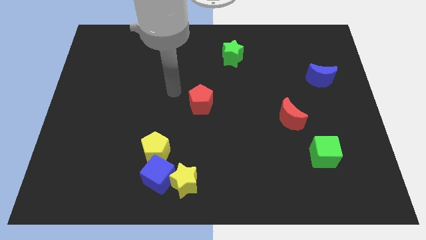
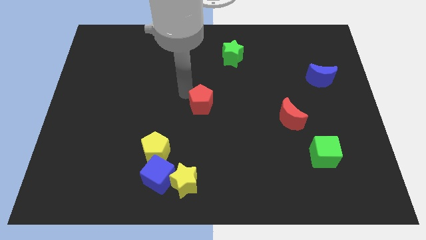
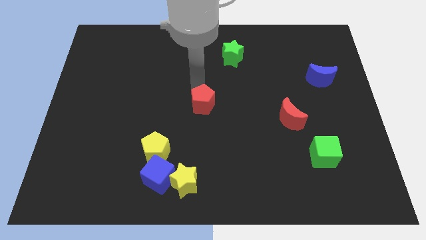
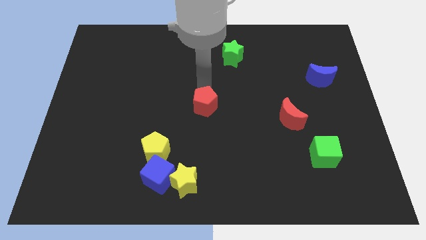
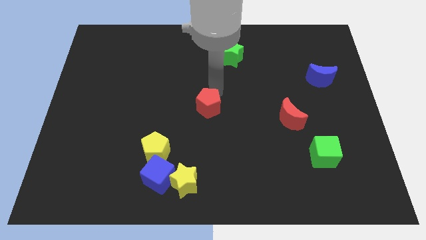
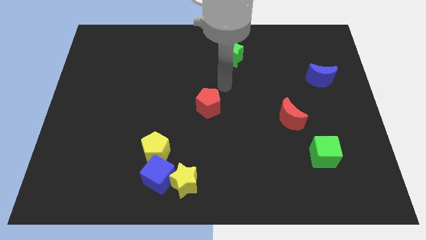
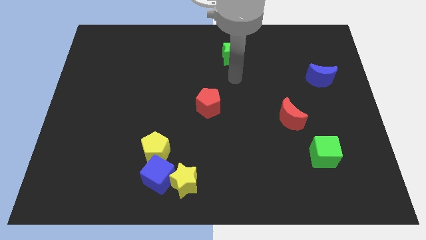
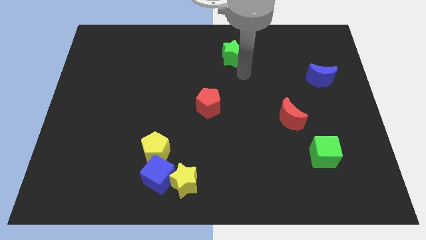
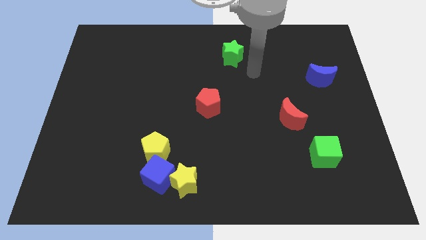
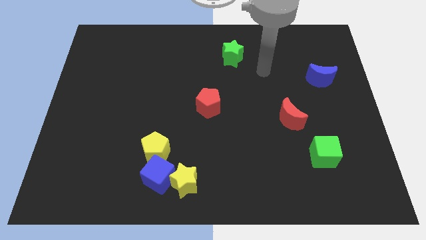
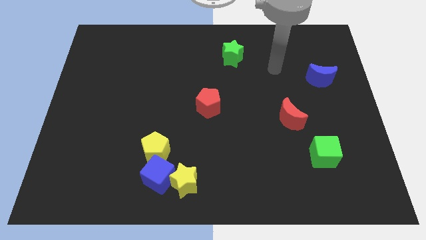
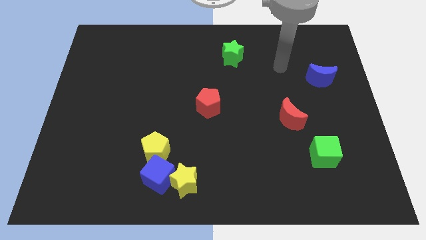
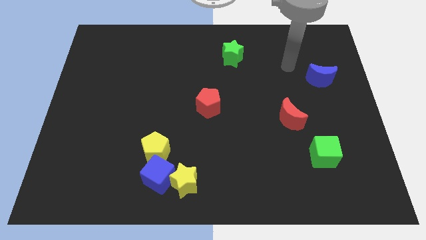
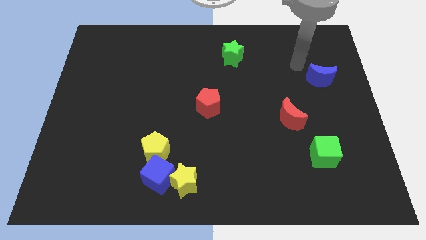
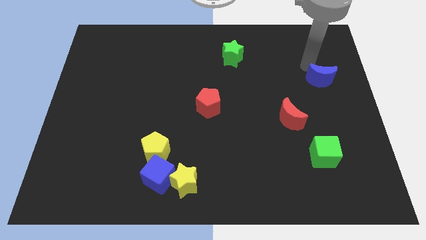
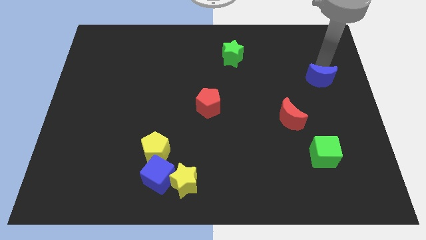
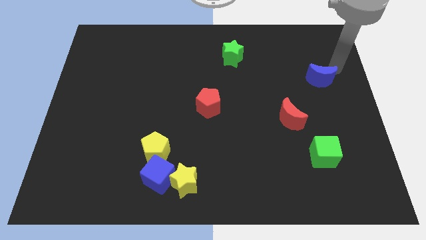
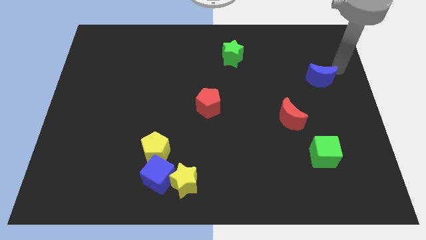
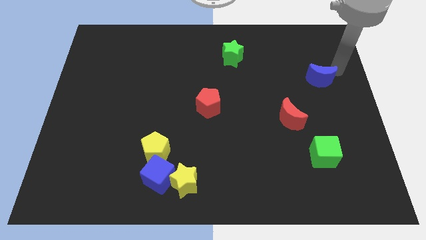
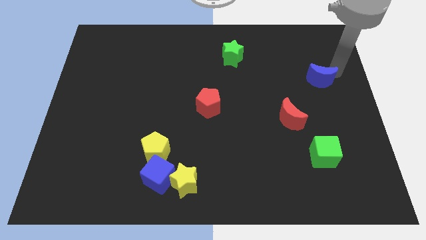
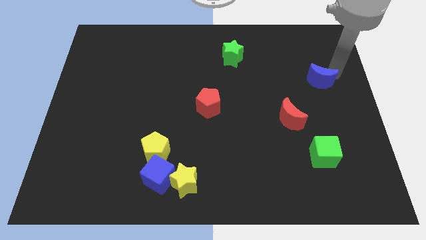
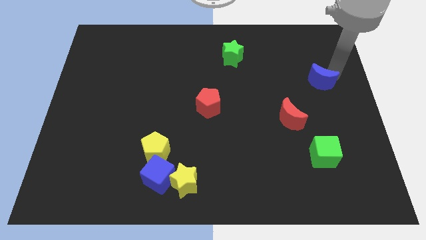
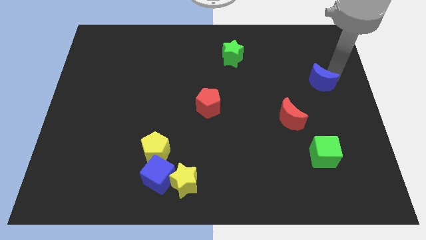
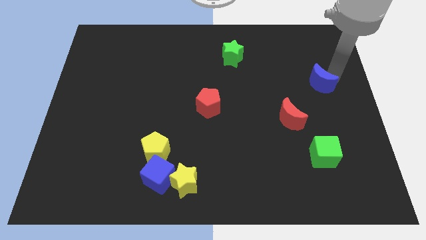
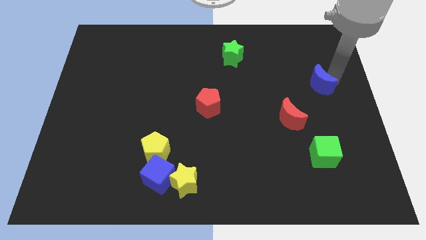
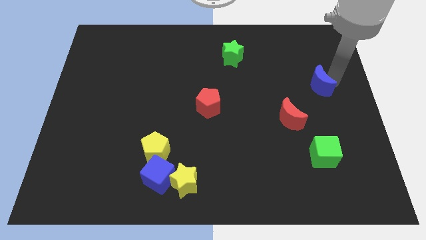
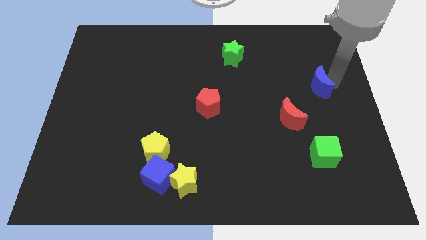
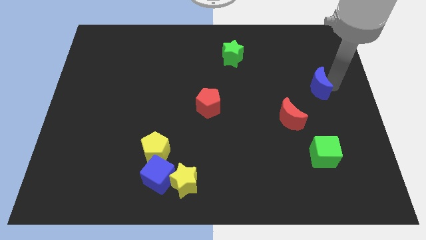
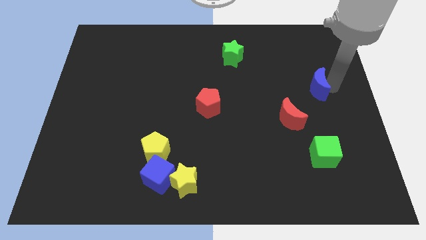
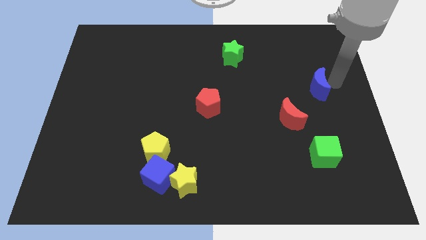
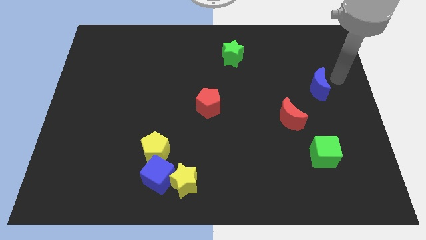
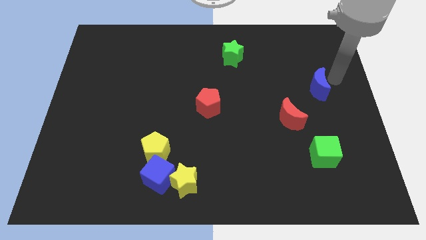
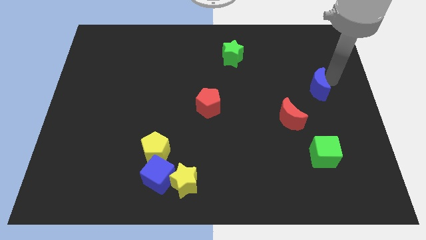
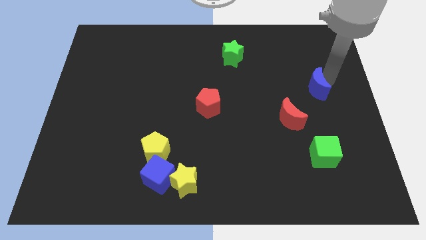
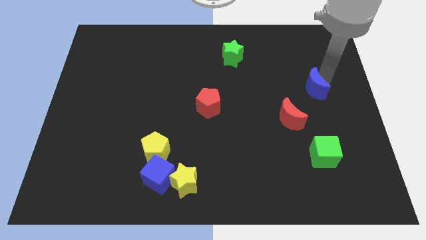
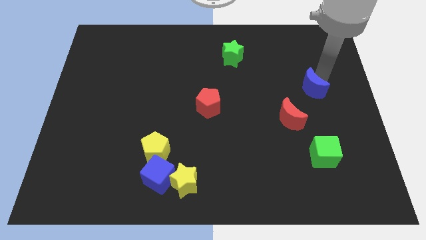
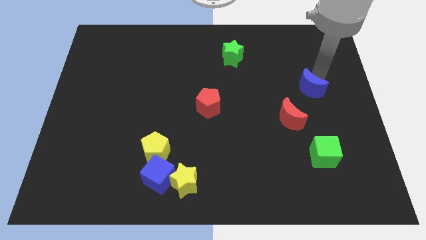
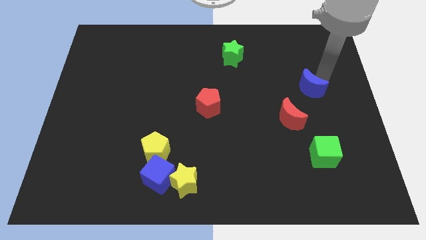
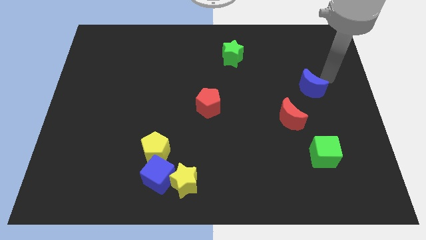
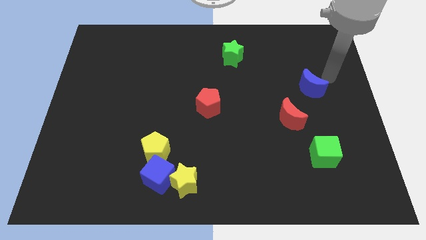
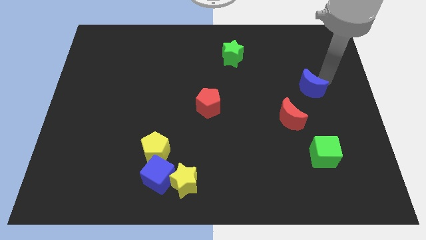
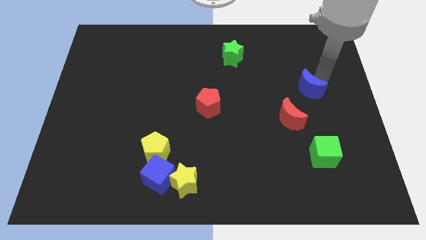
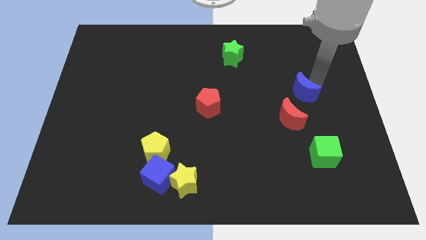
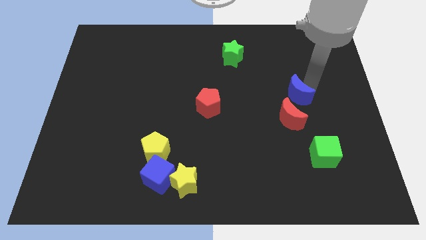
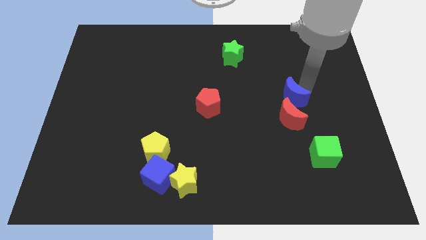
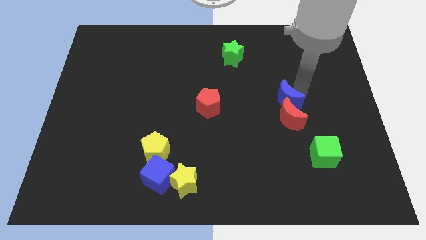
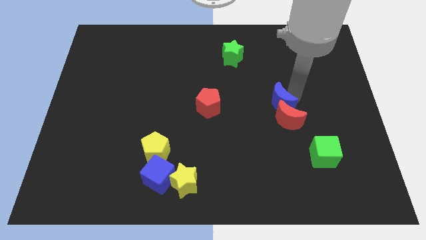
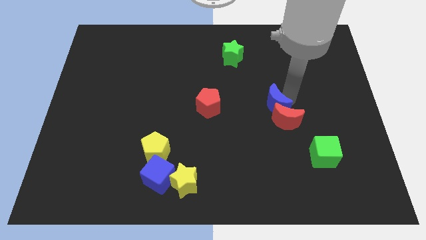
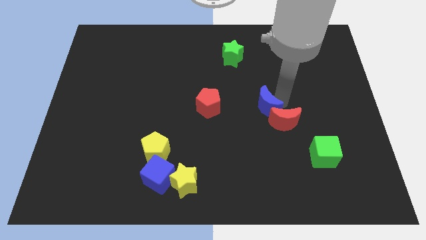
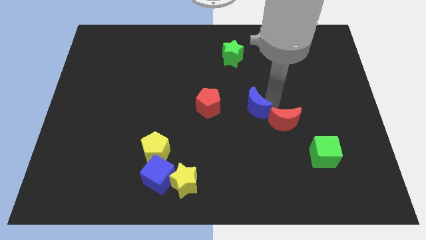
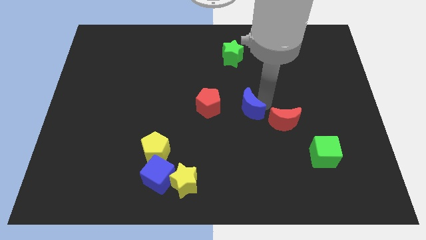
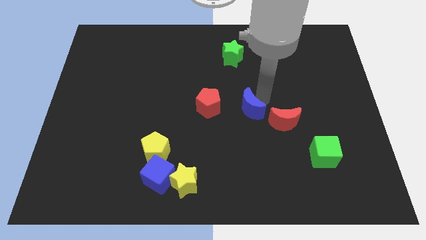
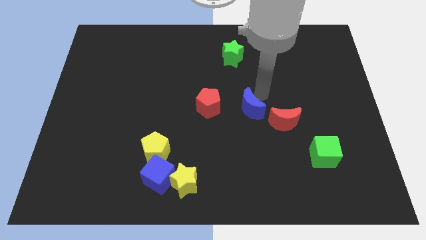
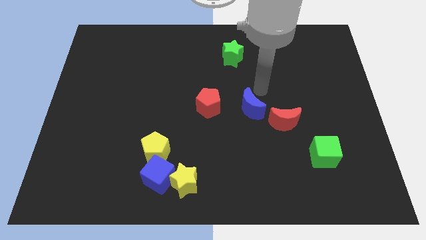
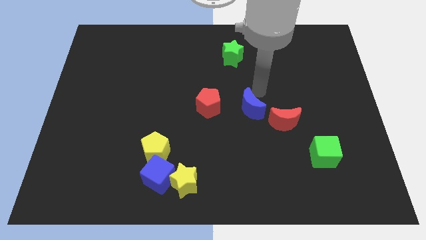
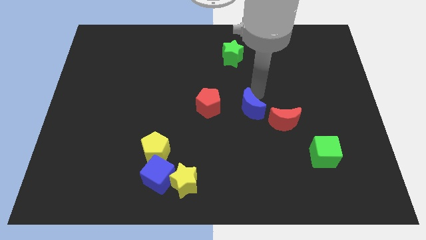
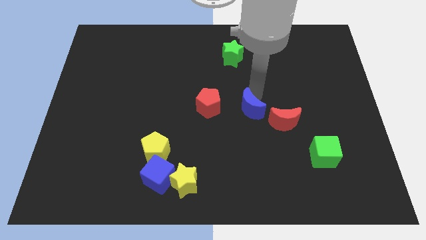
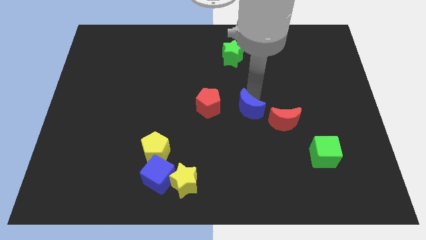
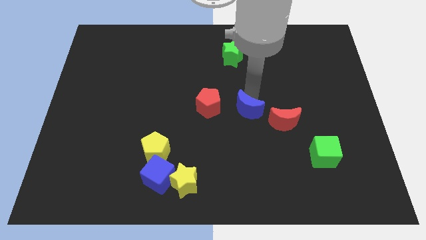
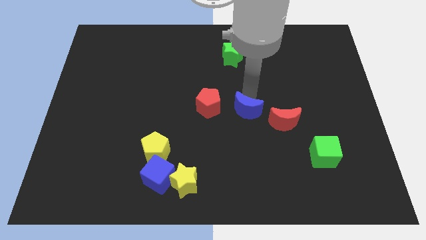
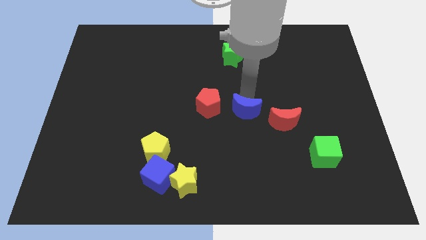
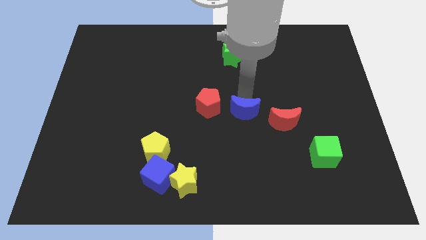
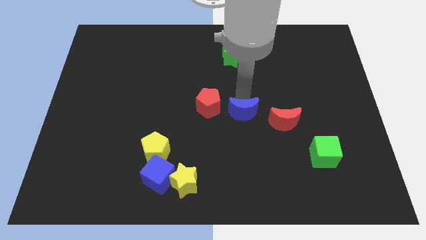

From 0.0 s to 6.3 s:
push the blue moon downwards and then left

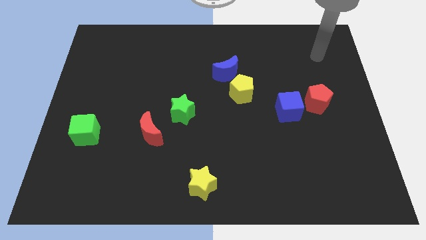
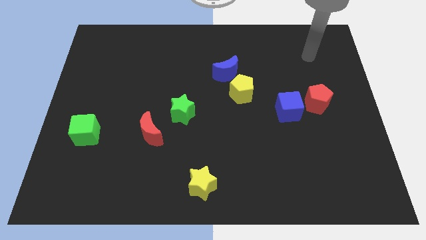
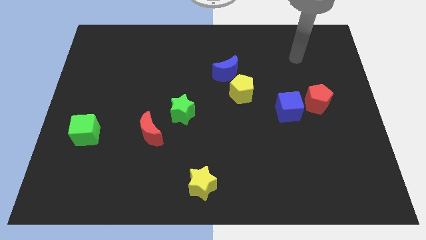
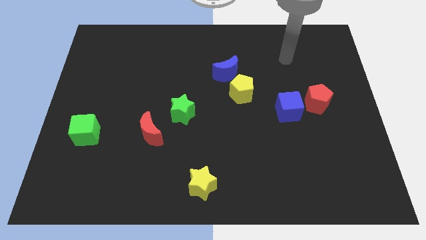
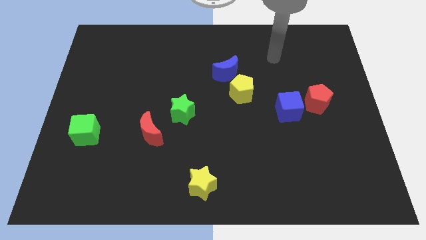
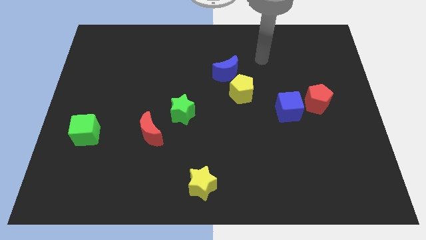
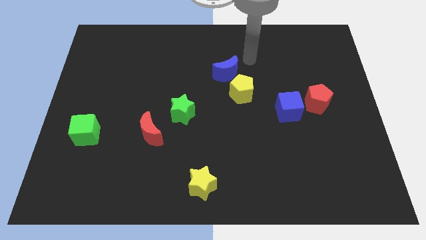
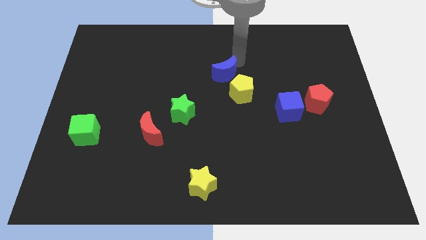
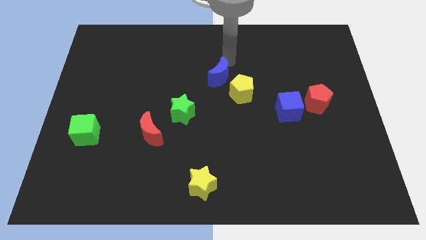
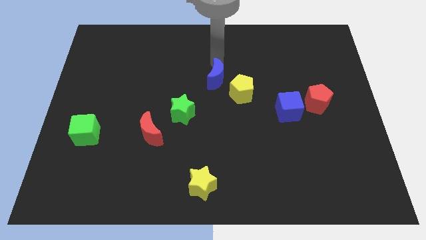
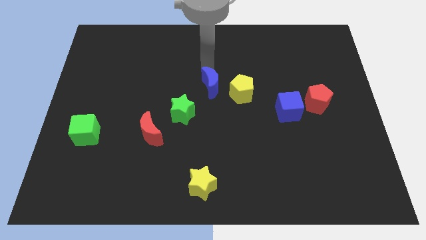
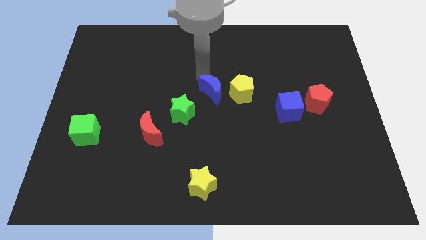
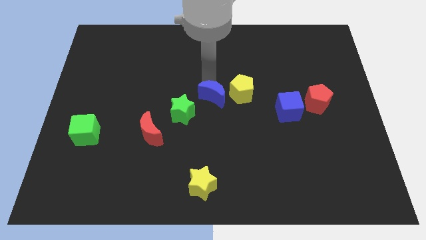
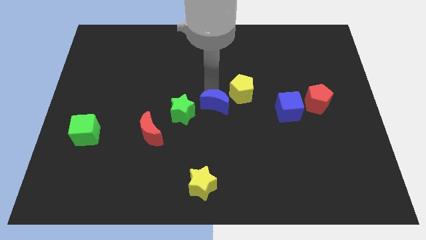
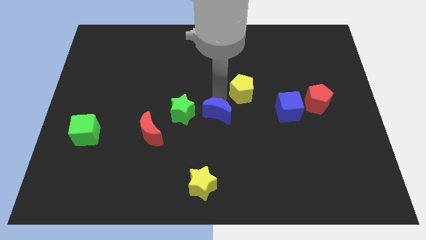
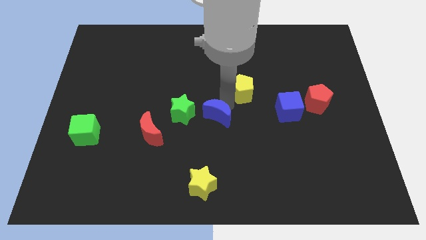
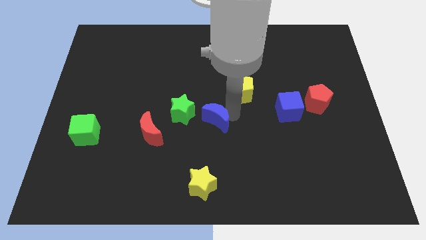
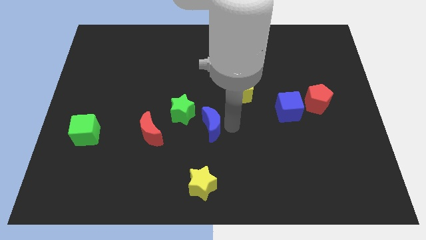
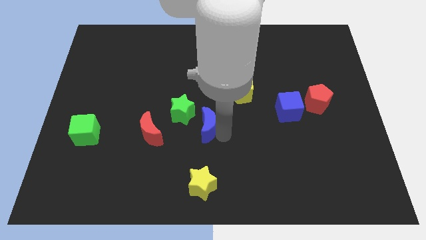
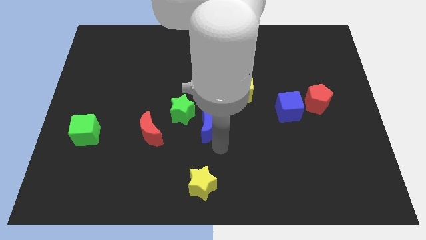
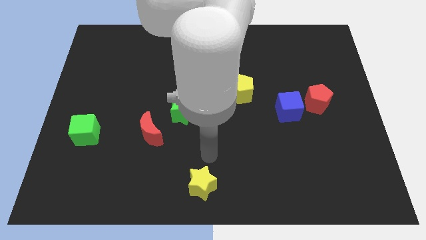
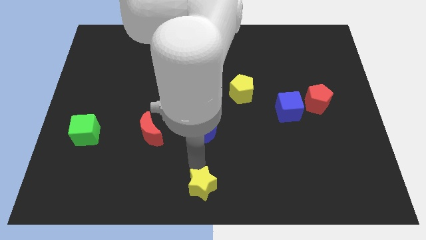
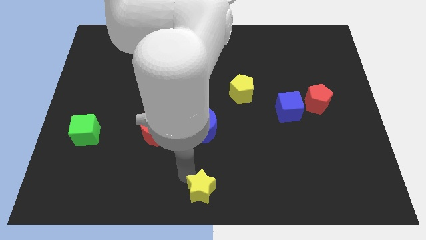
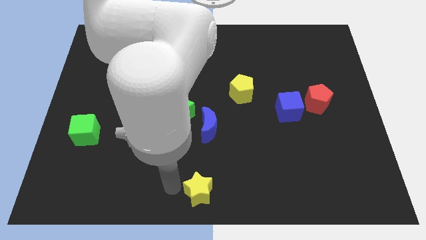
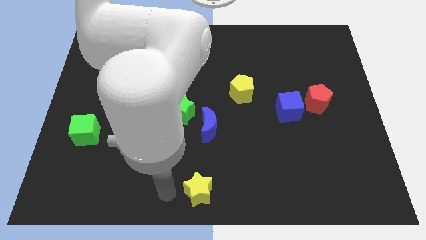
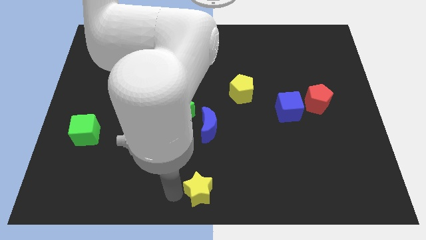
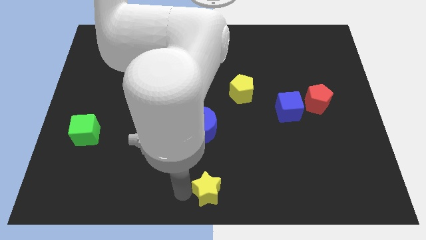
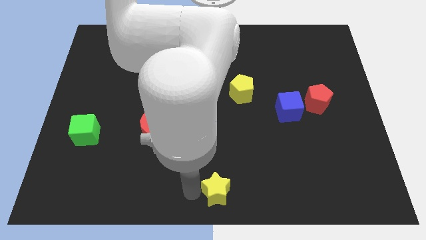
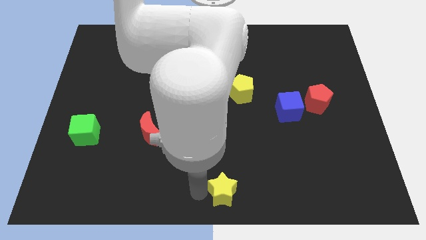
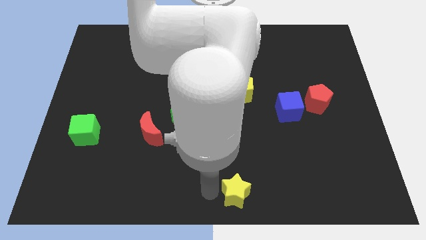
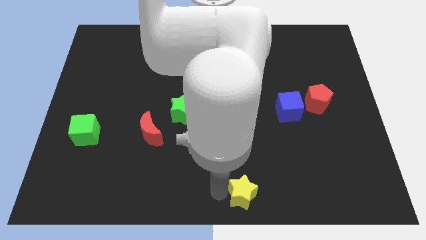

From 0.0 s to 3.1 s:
move the yellow star to the right slightly
